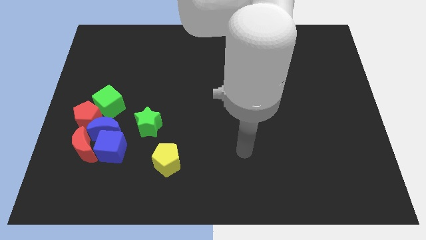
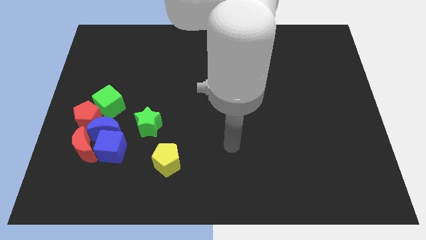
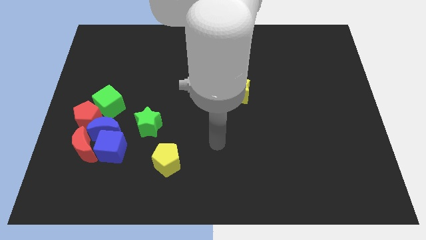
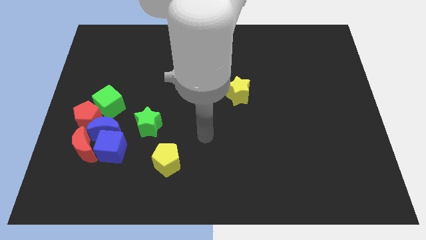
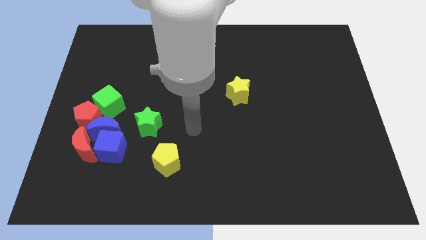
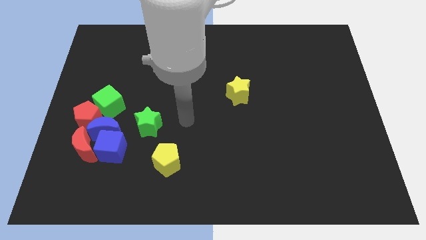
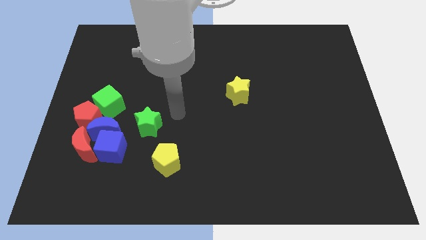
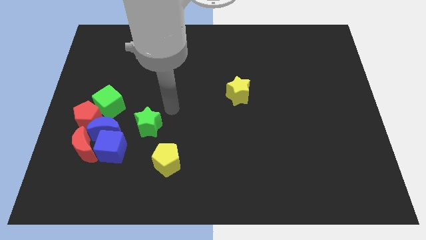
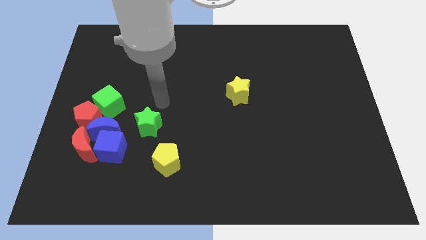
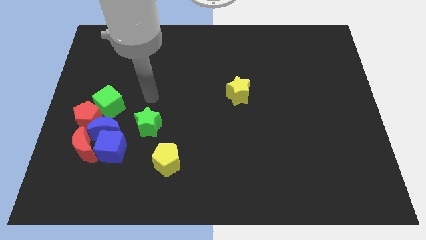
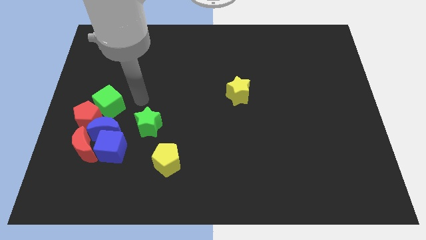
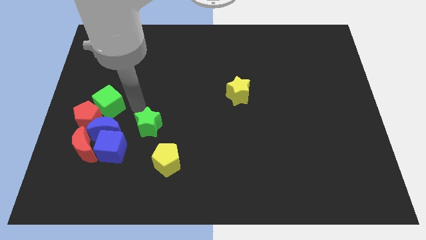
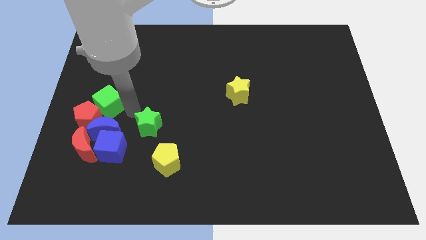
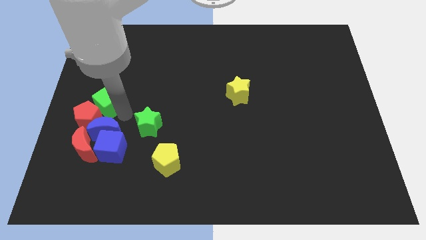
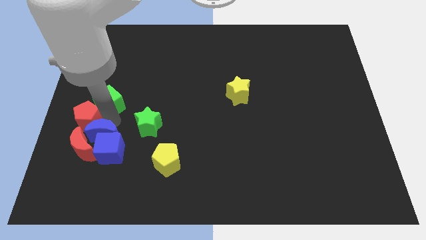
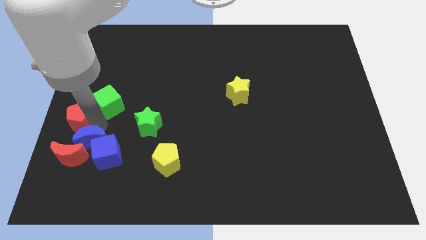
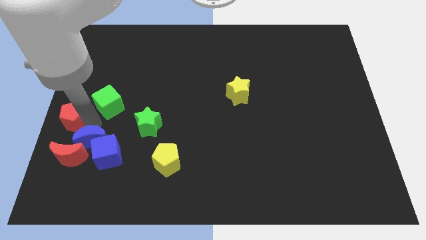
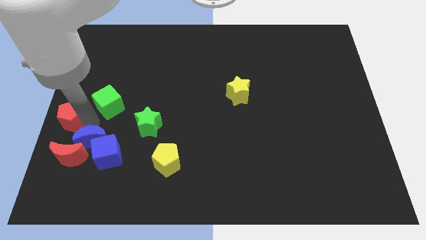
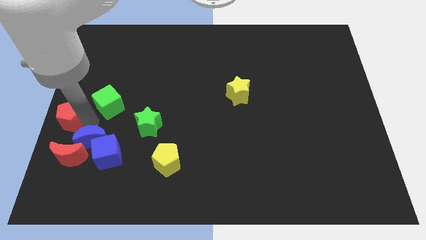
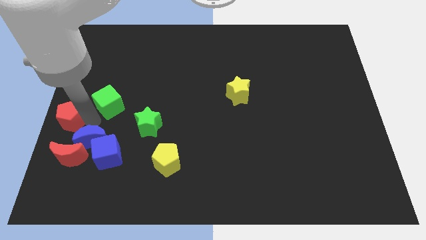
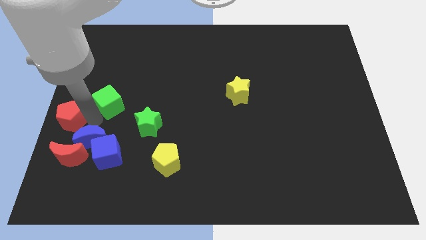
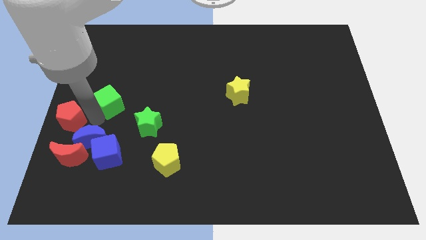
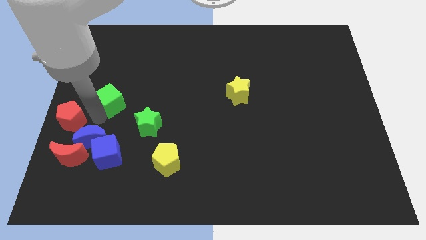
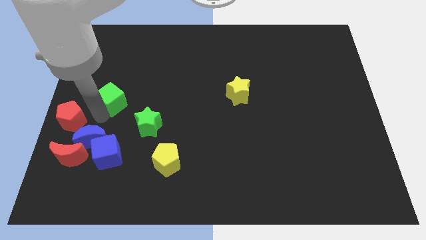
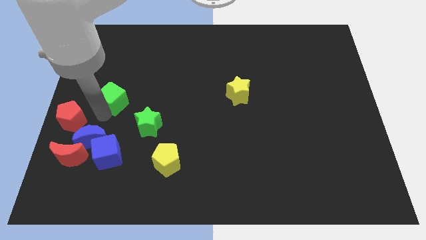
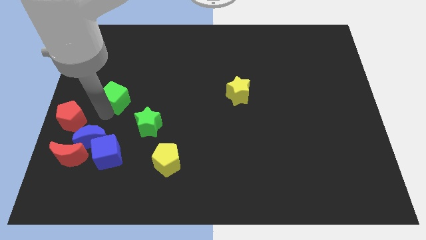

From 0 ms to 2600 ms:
pull the green cube apart from the red pentagon and blue moon

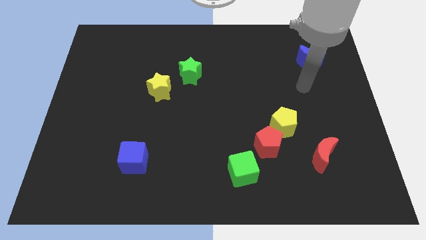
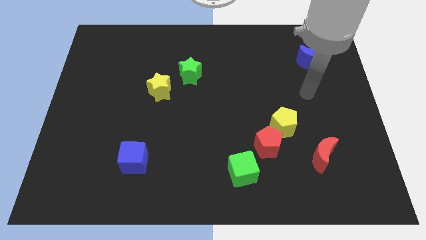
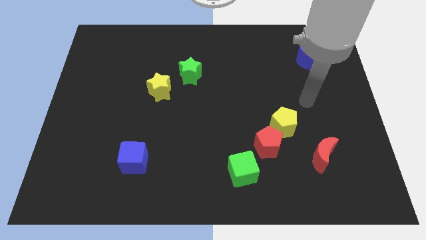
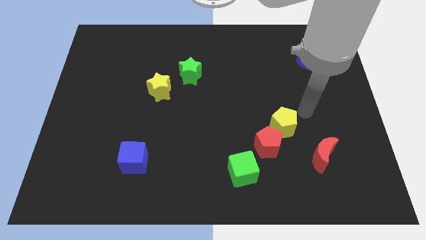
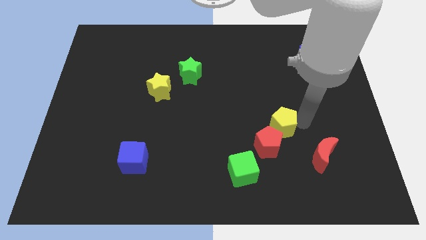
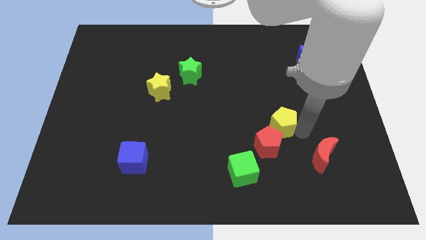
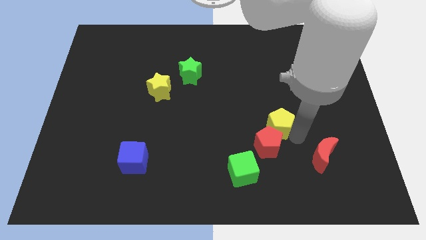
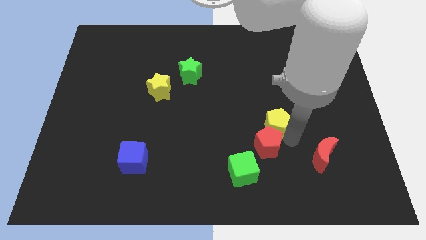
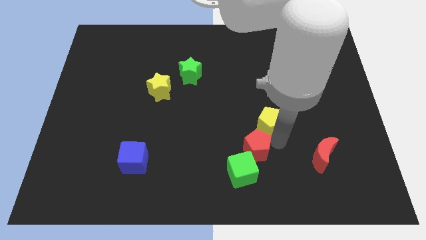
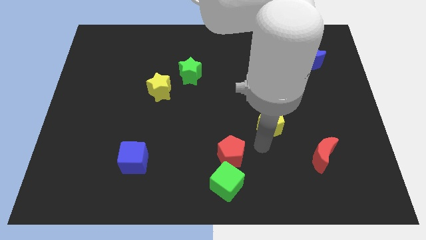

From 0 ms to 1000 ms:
pull the yellow pentagon apart from the red pentagon

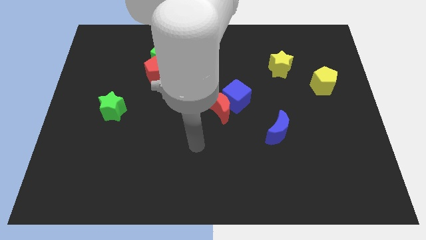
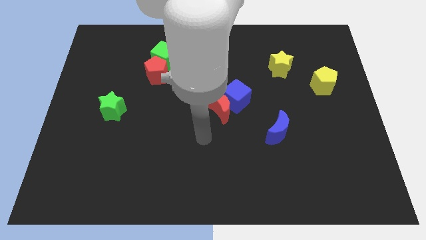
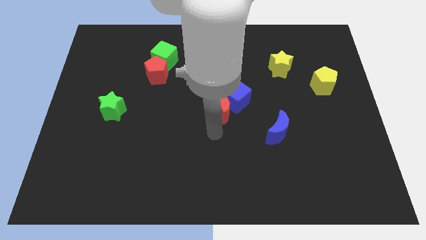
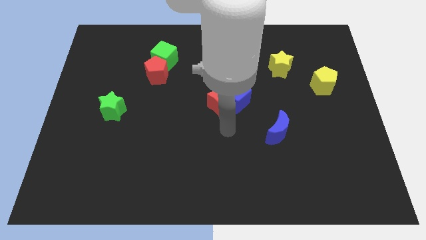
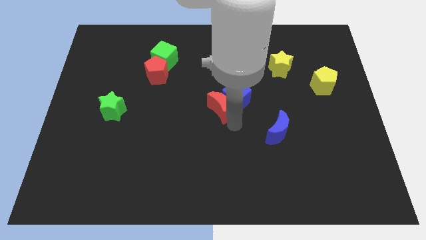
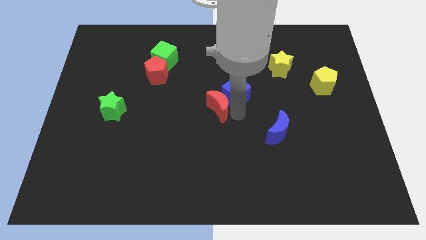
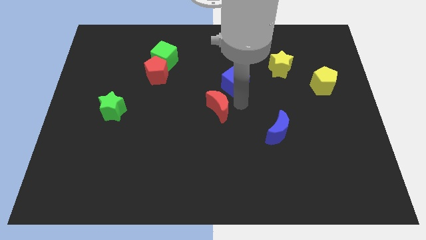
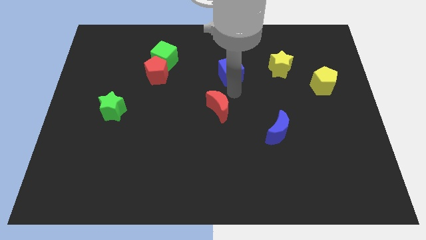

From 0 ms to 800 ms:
move the red moon away from the blue cube

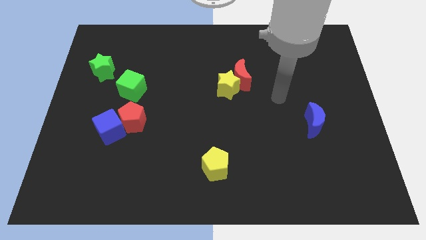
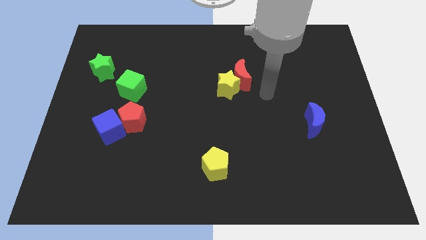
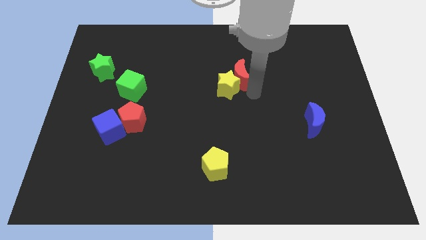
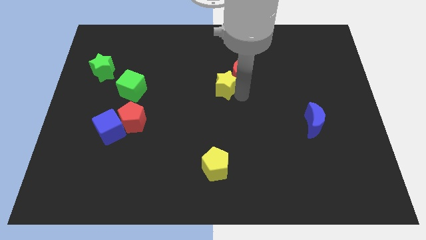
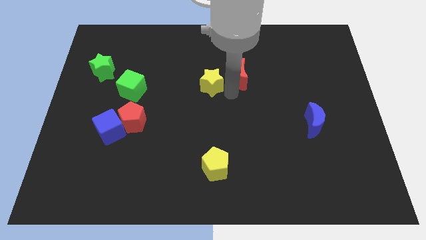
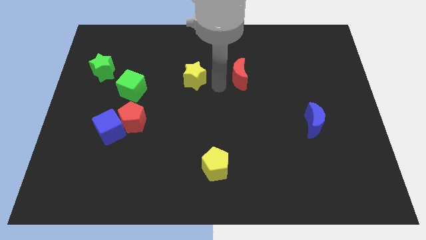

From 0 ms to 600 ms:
separate the red moon from the yellow star

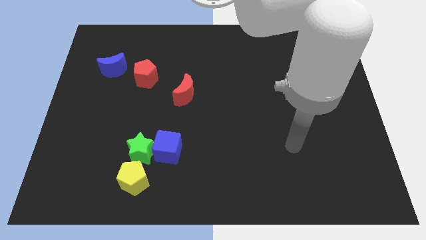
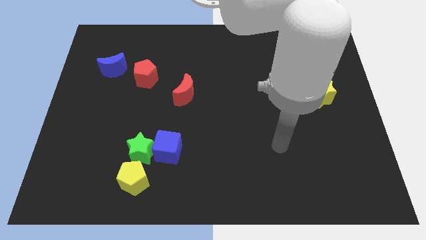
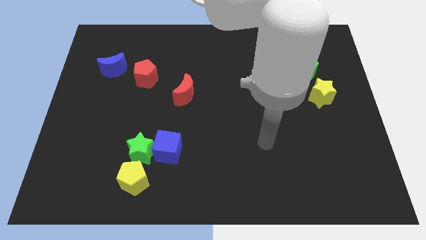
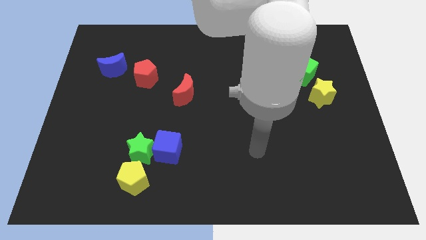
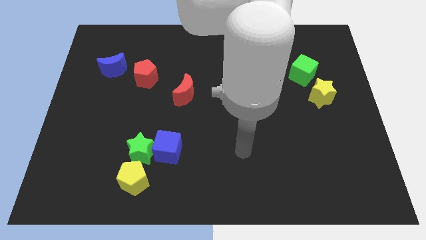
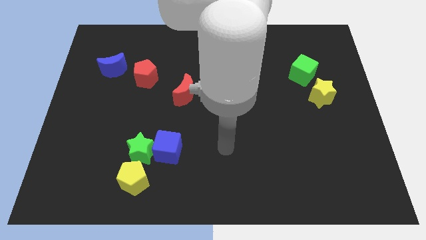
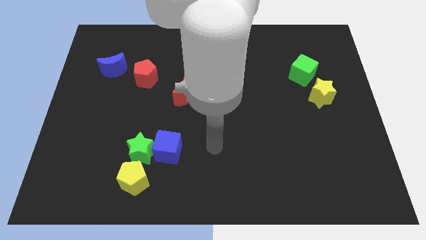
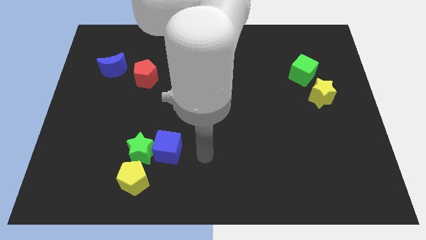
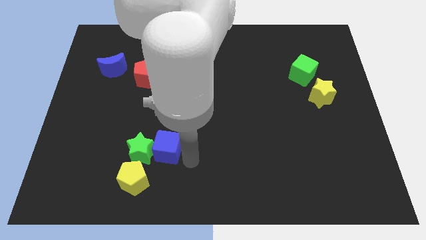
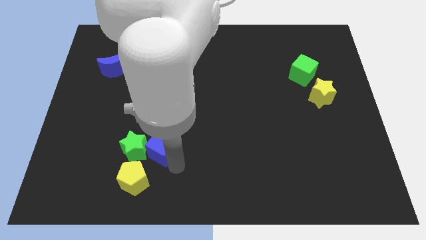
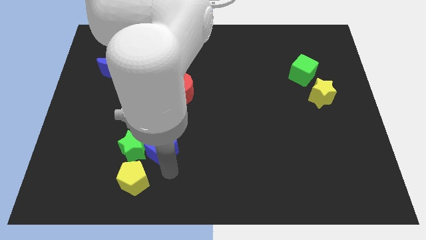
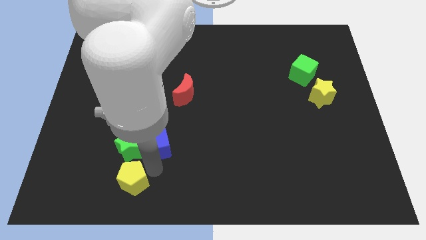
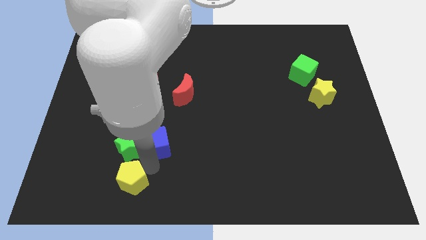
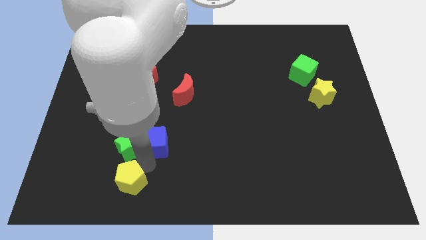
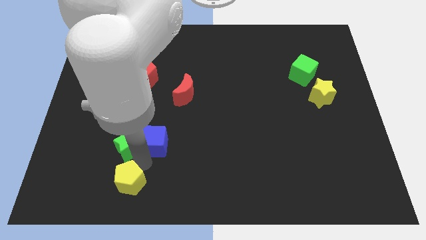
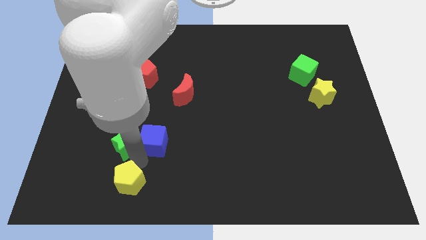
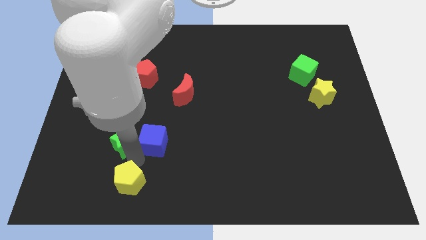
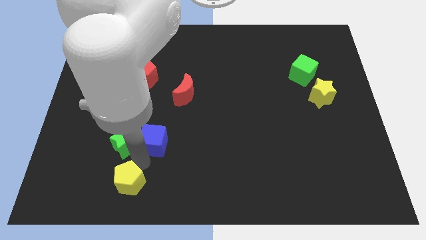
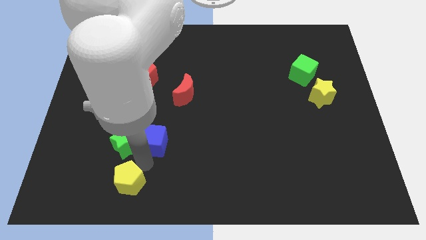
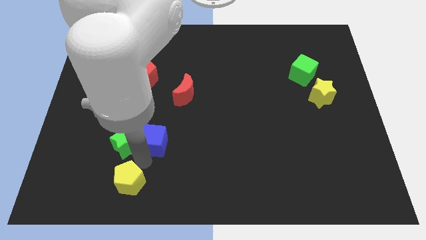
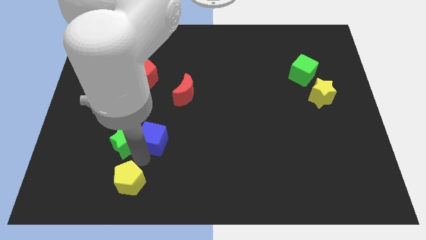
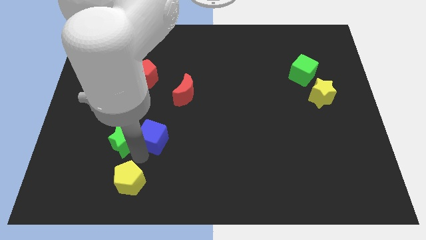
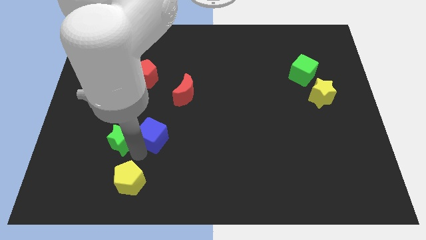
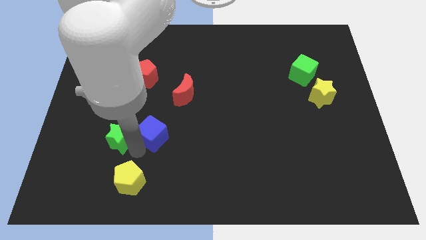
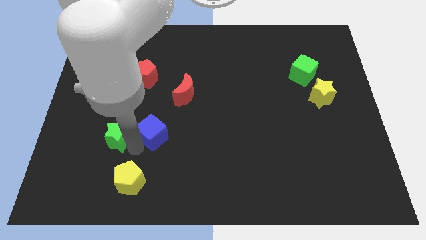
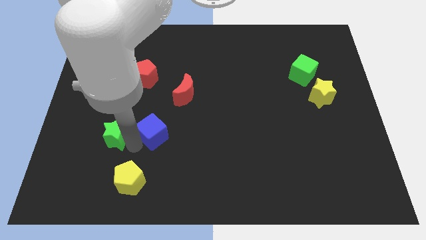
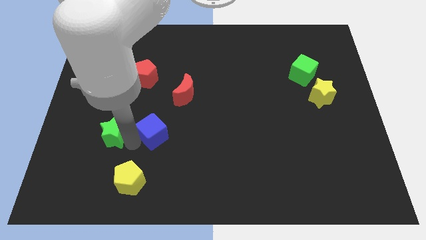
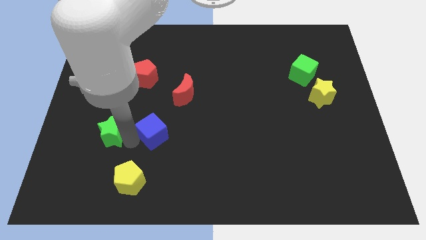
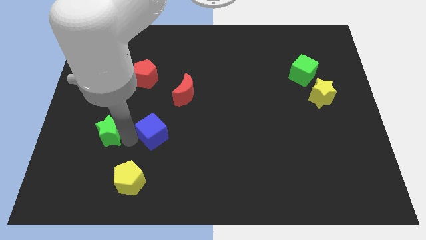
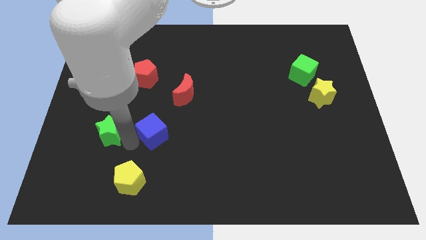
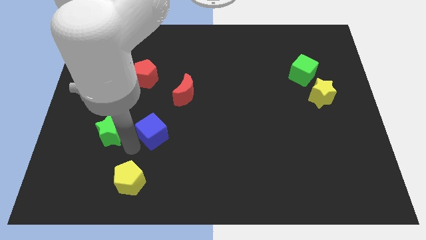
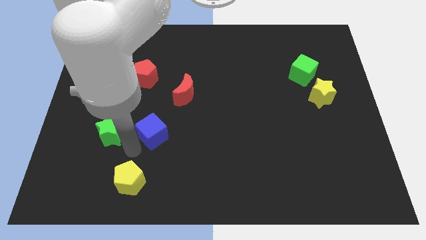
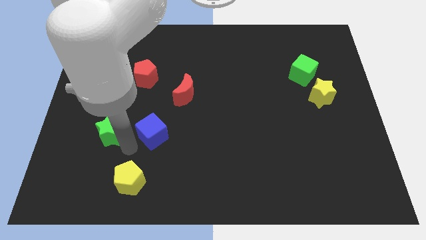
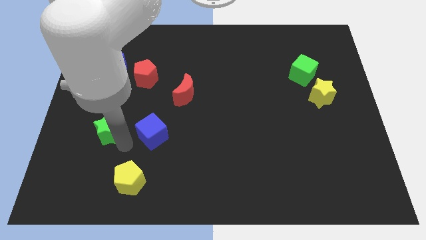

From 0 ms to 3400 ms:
pull the green star apart from the blue cube and yellow pentagon

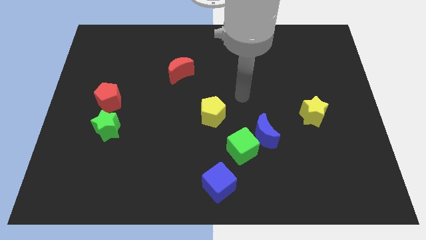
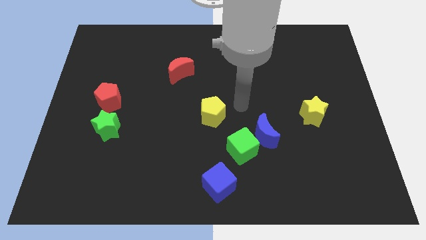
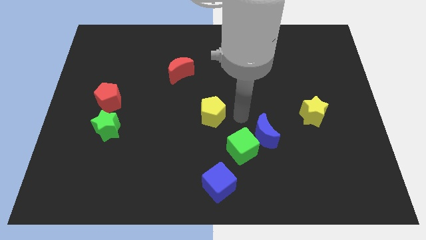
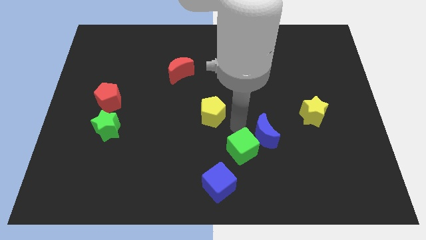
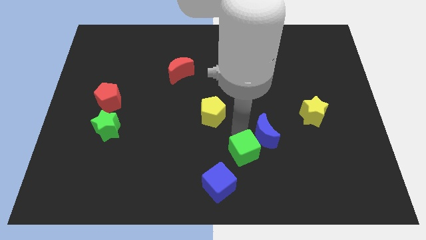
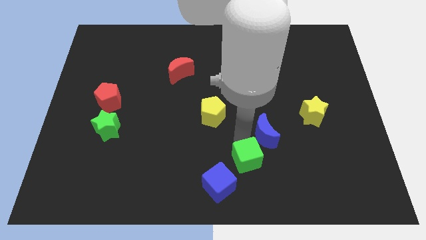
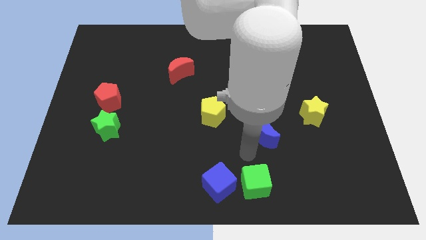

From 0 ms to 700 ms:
separate the blue moon from the green cube

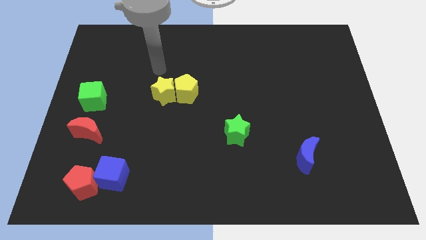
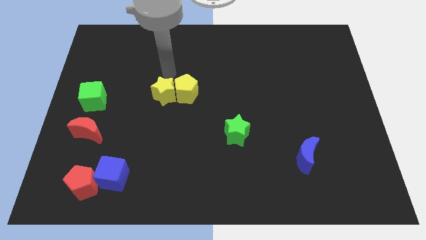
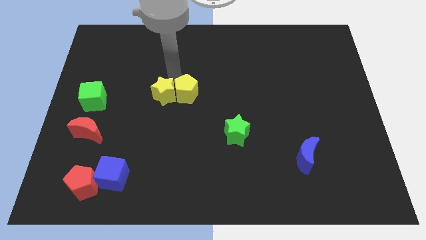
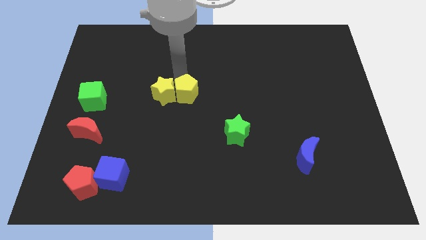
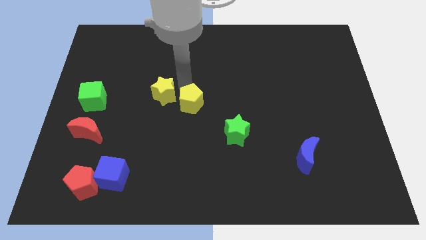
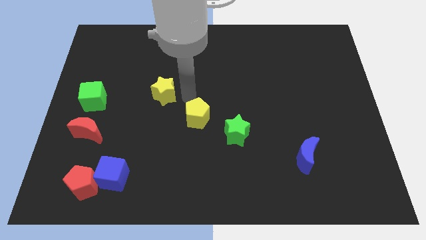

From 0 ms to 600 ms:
separate the yellow star from the yellow pentagon
